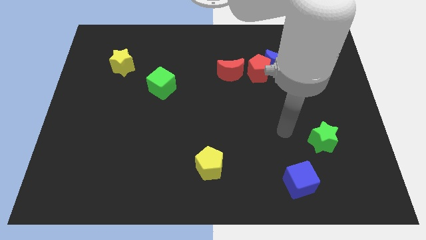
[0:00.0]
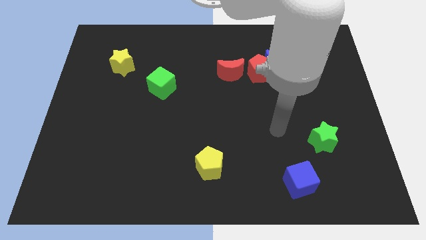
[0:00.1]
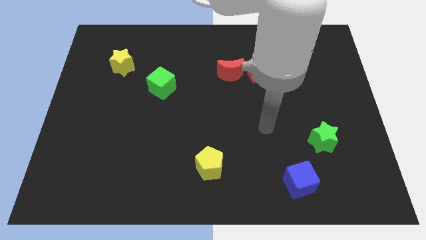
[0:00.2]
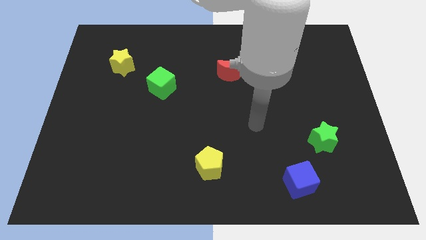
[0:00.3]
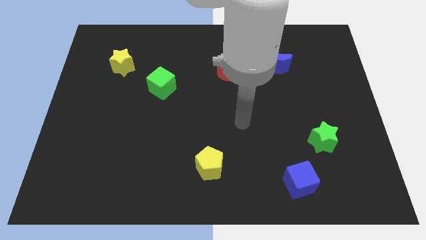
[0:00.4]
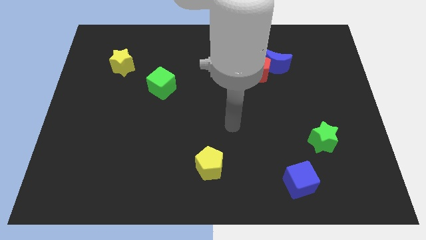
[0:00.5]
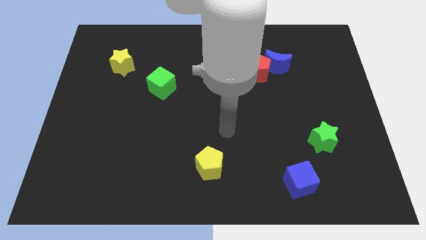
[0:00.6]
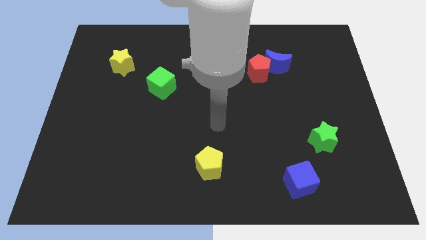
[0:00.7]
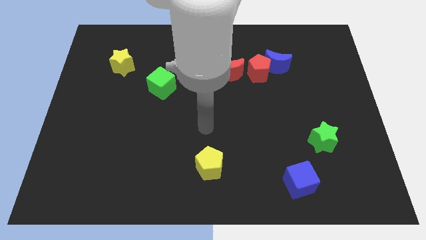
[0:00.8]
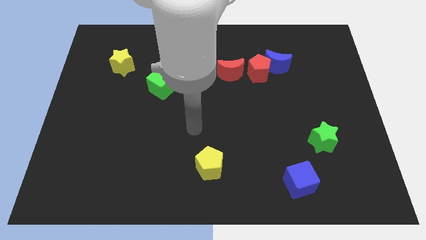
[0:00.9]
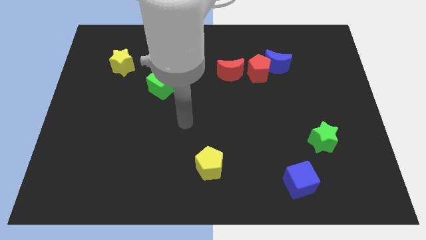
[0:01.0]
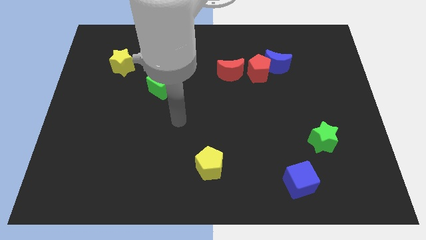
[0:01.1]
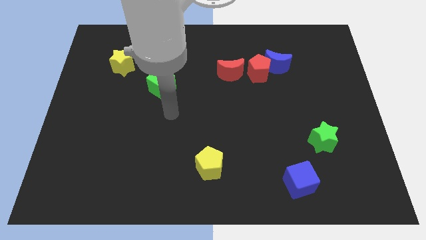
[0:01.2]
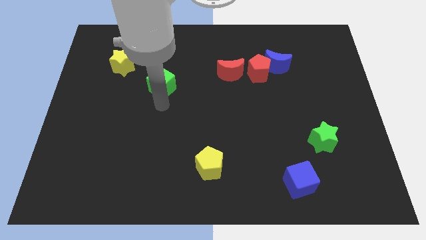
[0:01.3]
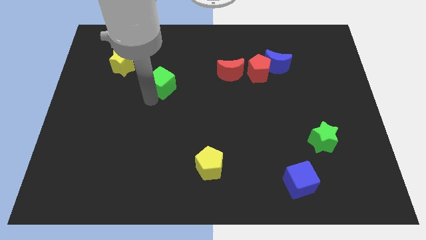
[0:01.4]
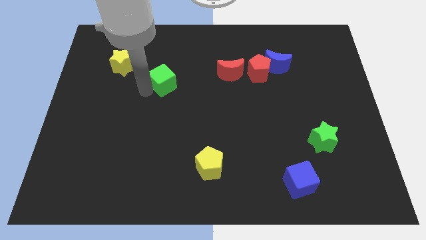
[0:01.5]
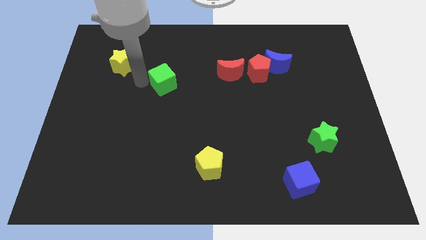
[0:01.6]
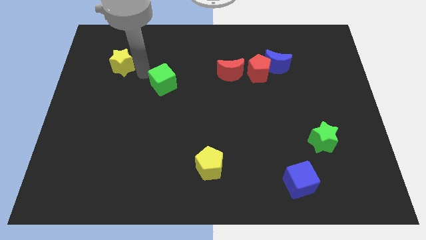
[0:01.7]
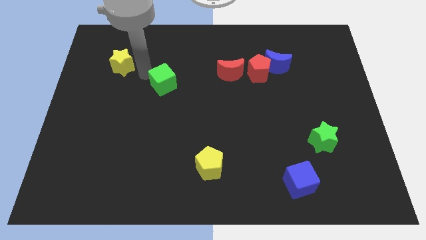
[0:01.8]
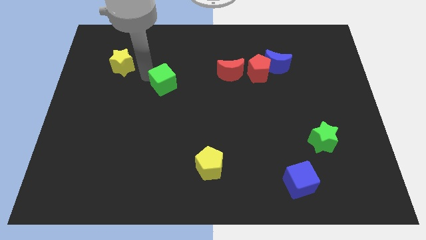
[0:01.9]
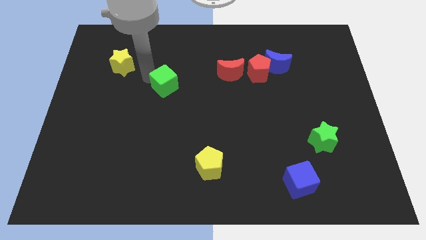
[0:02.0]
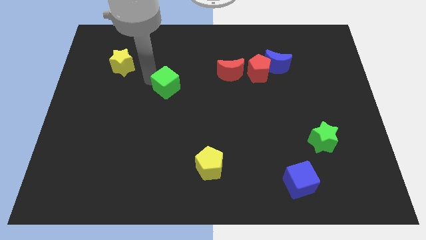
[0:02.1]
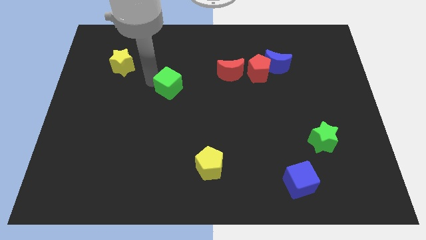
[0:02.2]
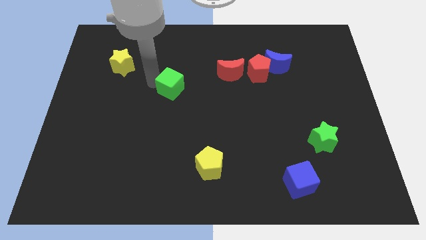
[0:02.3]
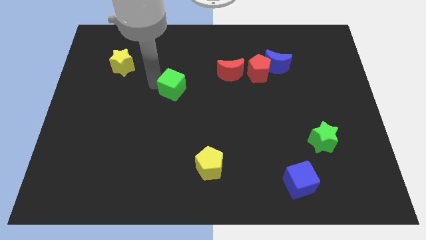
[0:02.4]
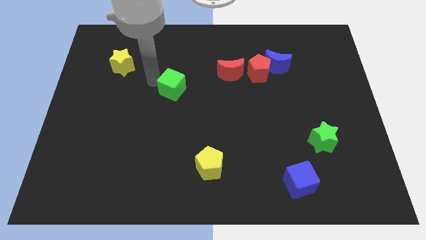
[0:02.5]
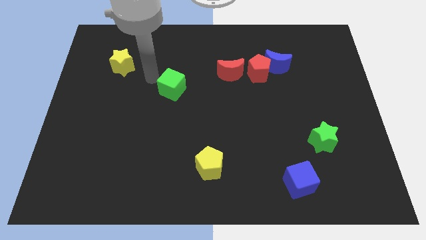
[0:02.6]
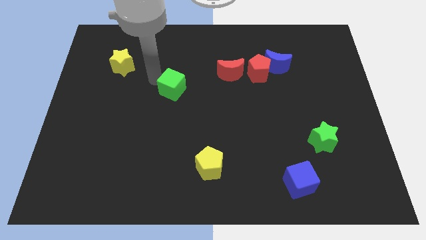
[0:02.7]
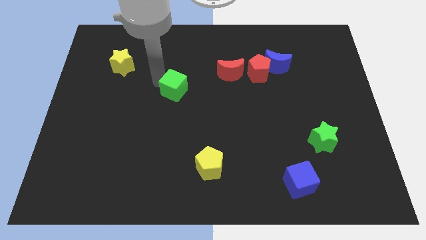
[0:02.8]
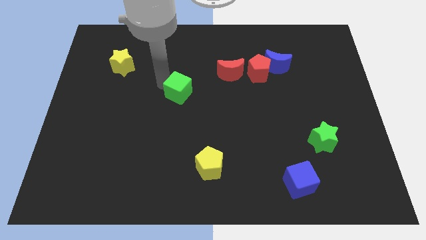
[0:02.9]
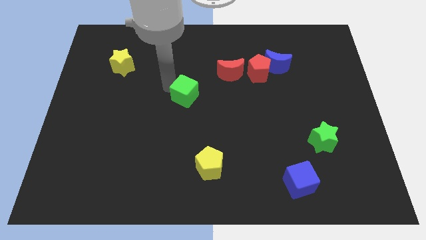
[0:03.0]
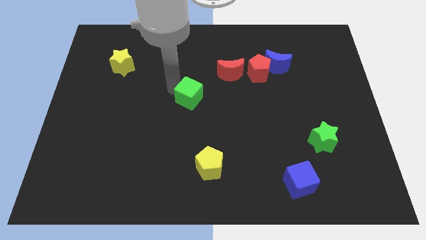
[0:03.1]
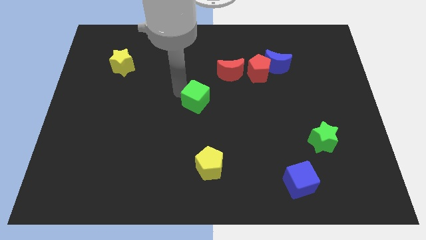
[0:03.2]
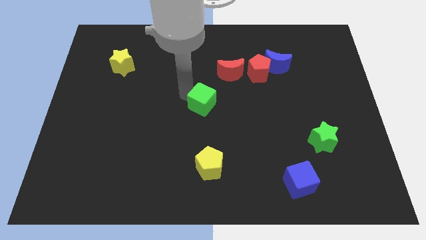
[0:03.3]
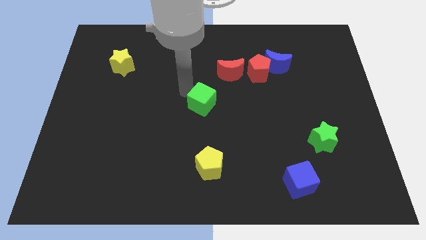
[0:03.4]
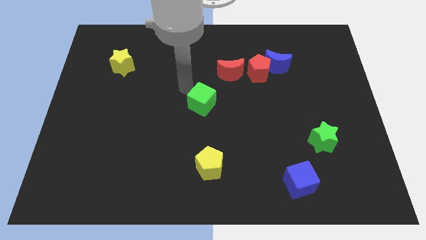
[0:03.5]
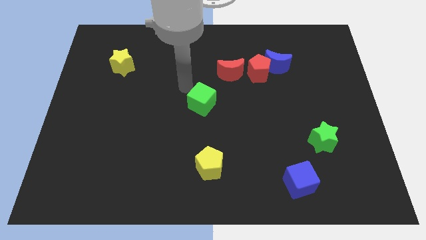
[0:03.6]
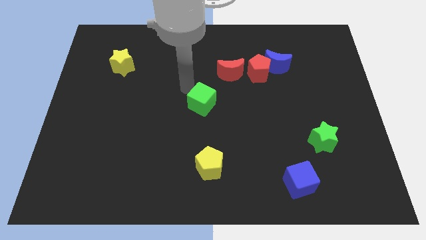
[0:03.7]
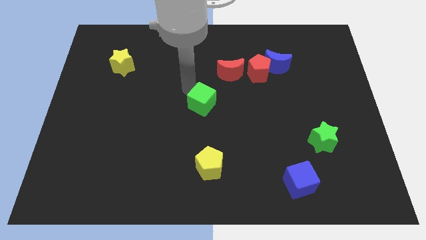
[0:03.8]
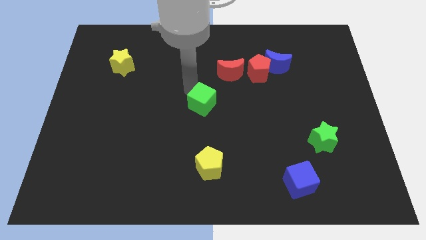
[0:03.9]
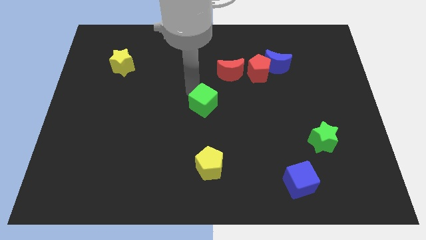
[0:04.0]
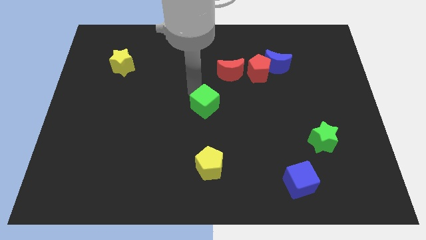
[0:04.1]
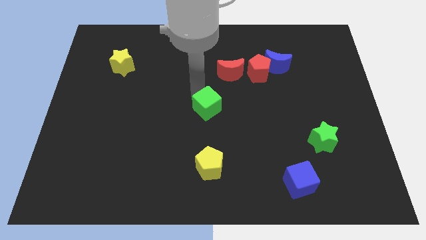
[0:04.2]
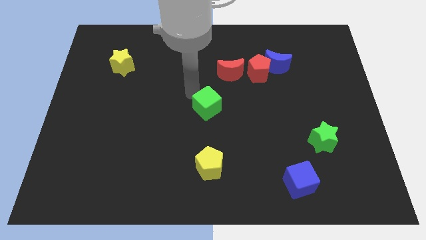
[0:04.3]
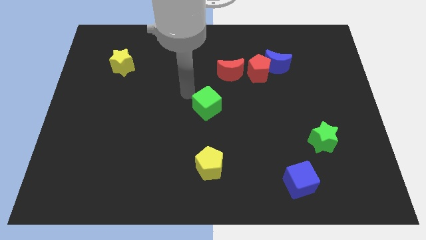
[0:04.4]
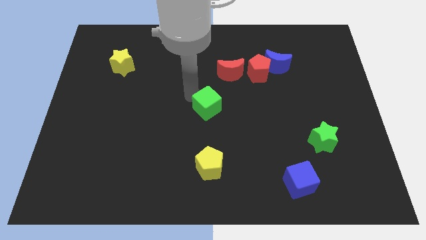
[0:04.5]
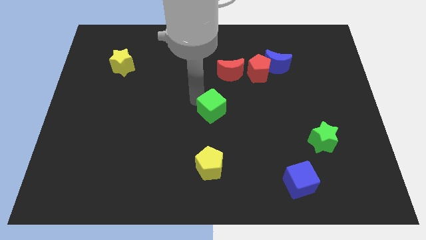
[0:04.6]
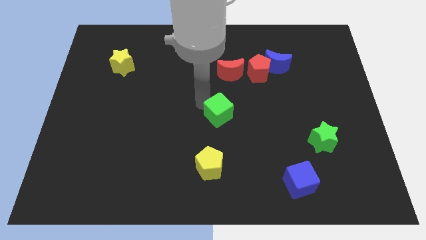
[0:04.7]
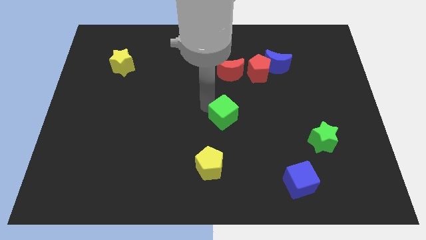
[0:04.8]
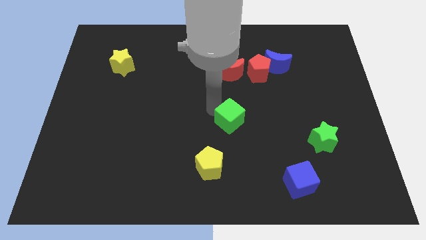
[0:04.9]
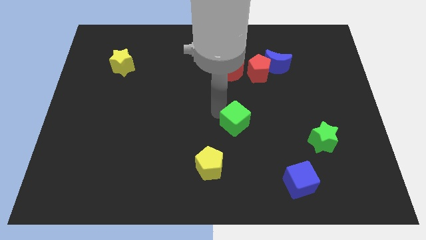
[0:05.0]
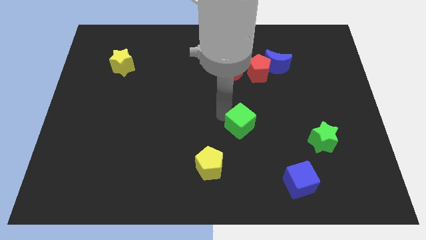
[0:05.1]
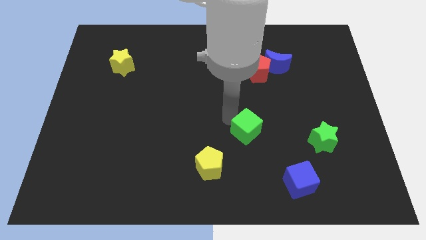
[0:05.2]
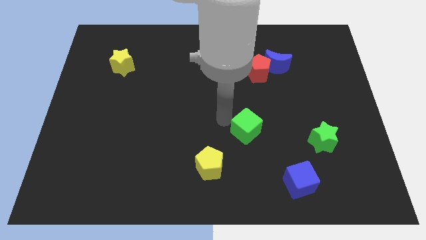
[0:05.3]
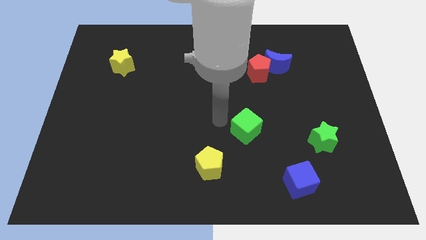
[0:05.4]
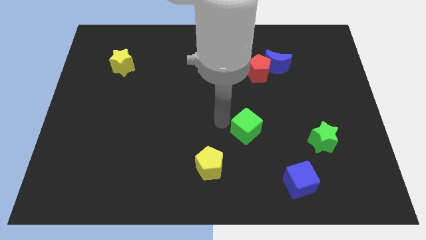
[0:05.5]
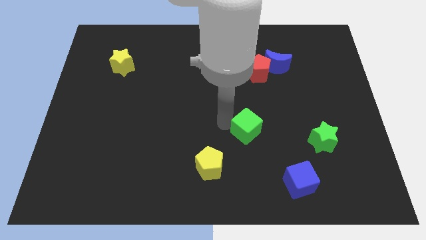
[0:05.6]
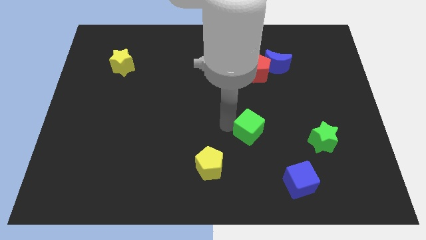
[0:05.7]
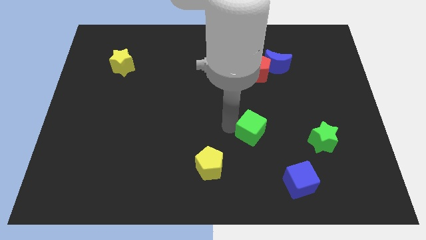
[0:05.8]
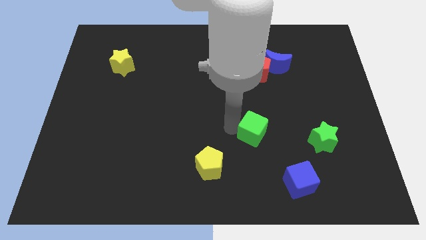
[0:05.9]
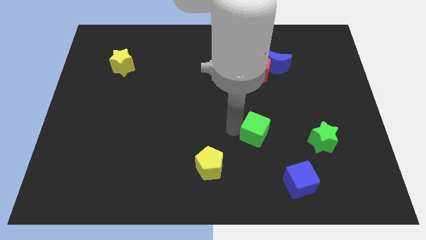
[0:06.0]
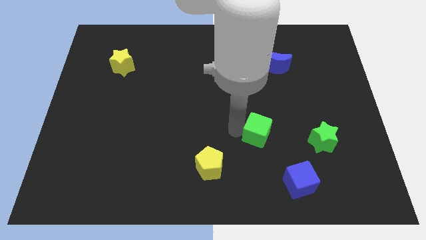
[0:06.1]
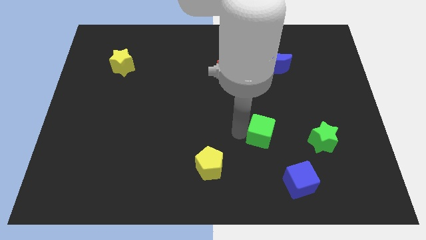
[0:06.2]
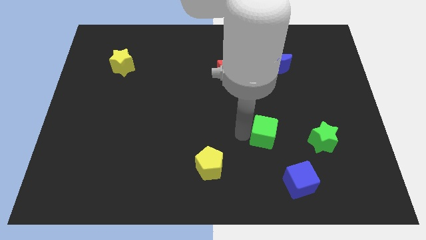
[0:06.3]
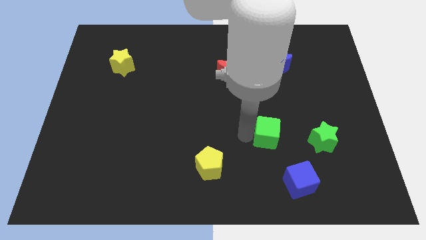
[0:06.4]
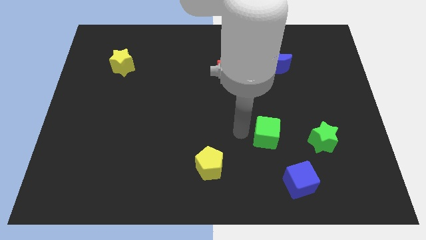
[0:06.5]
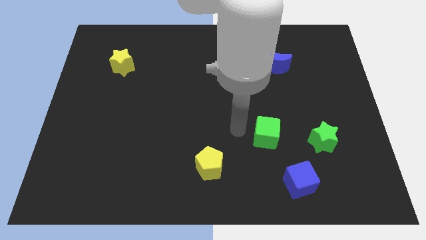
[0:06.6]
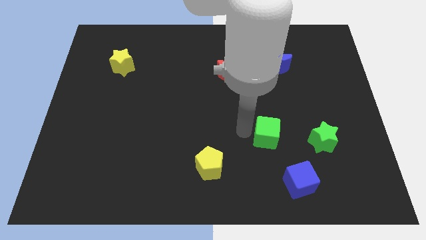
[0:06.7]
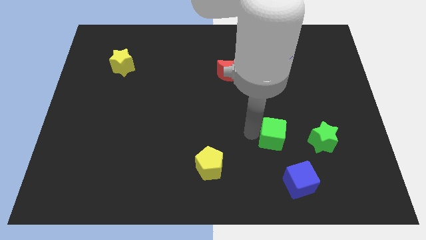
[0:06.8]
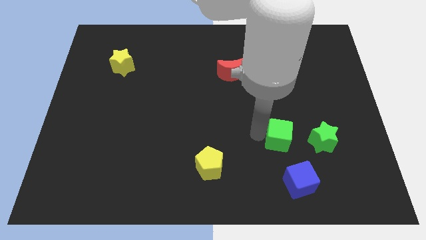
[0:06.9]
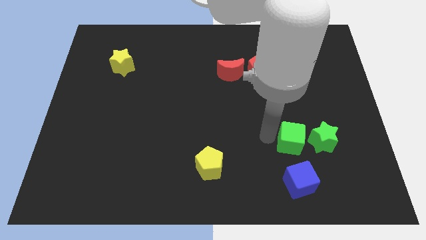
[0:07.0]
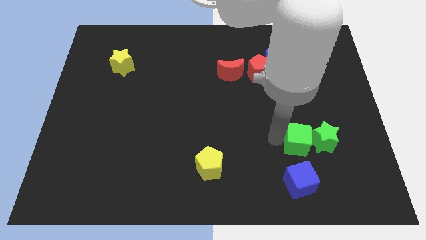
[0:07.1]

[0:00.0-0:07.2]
put the green cube close to the green star
